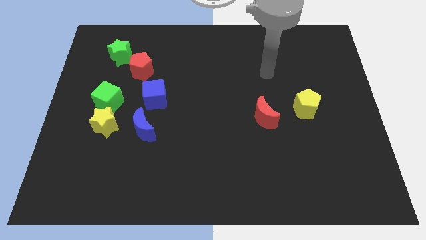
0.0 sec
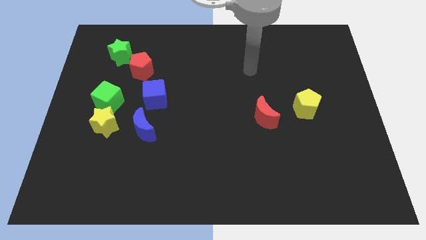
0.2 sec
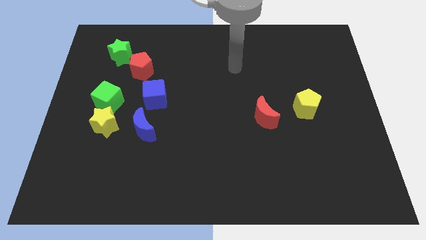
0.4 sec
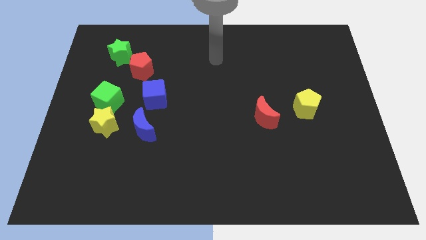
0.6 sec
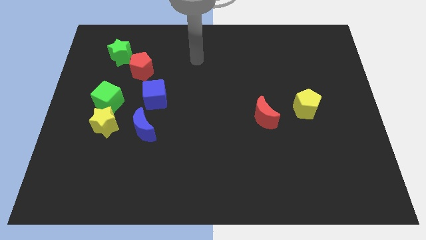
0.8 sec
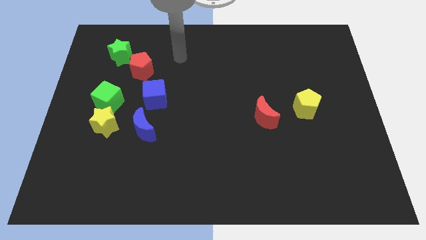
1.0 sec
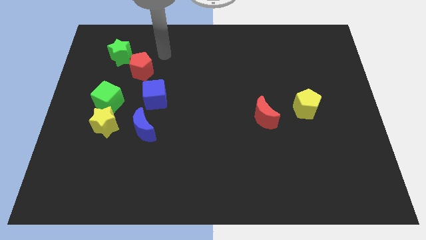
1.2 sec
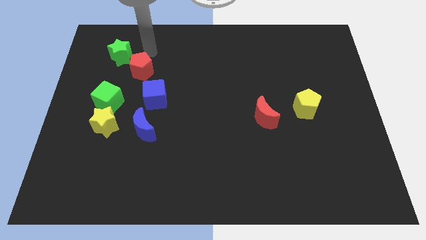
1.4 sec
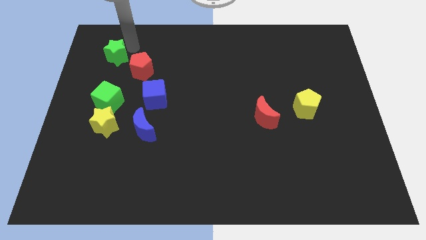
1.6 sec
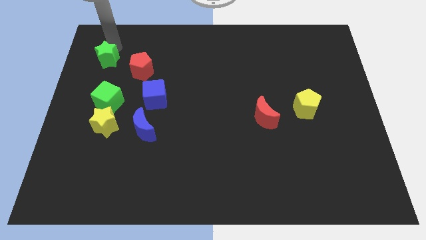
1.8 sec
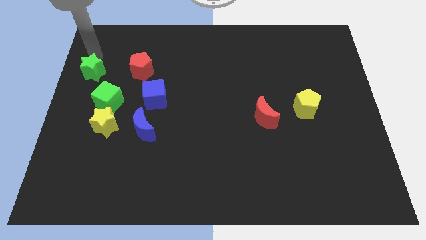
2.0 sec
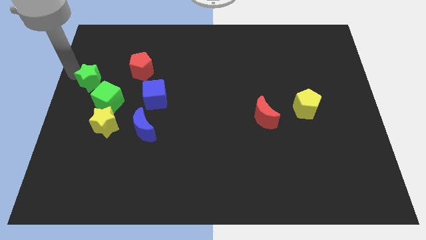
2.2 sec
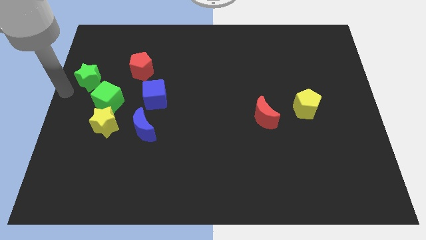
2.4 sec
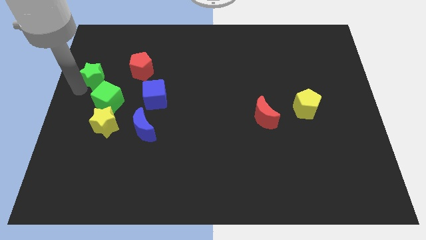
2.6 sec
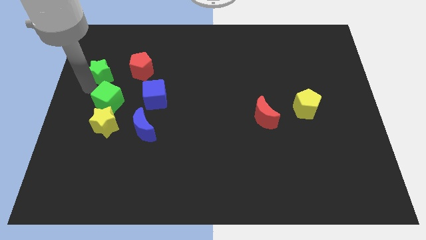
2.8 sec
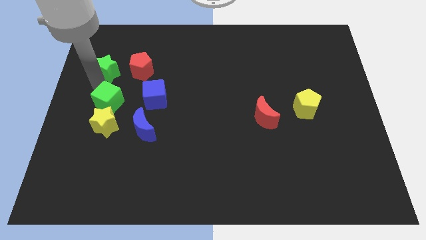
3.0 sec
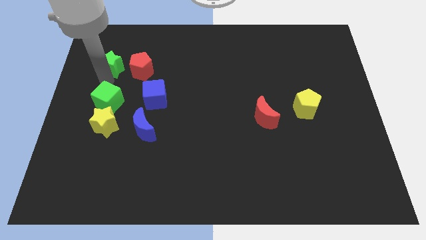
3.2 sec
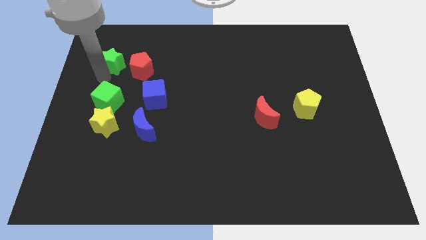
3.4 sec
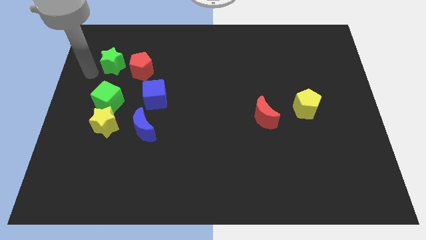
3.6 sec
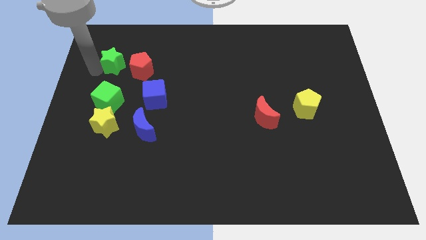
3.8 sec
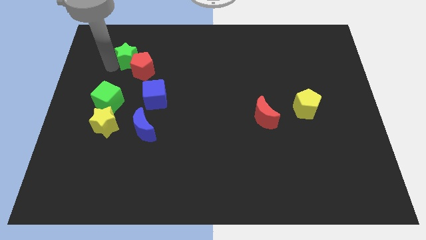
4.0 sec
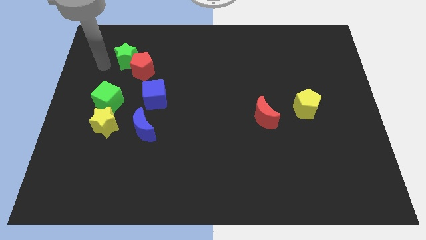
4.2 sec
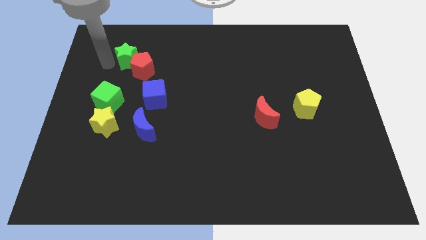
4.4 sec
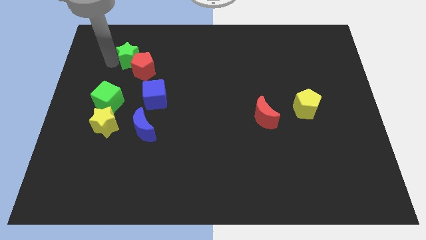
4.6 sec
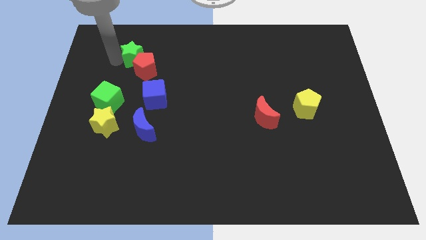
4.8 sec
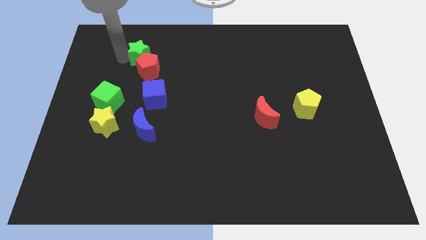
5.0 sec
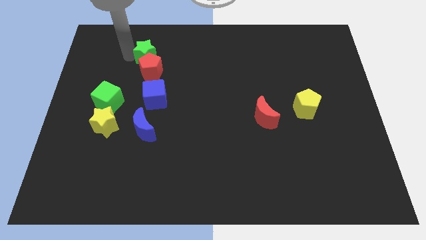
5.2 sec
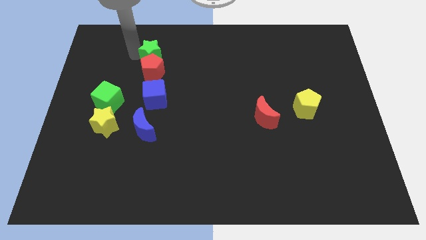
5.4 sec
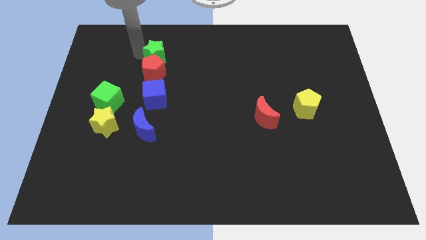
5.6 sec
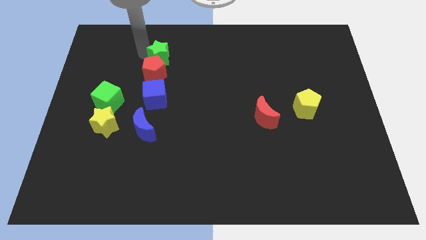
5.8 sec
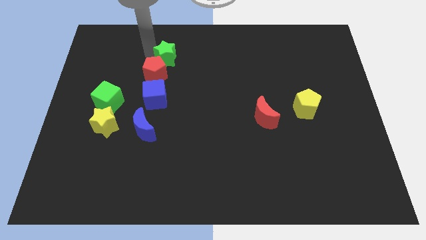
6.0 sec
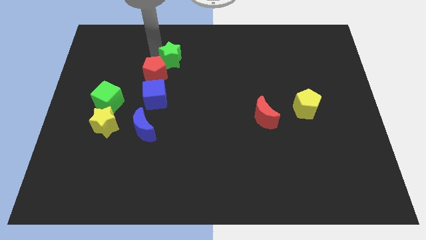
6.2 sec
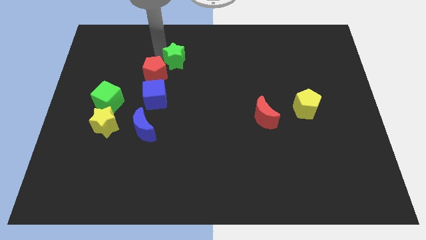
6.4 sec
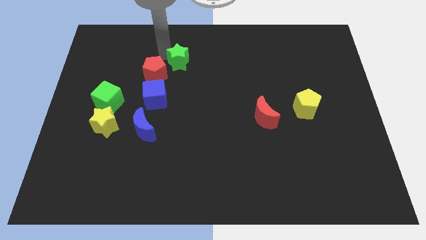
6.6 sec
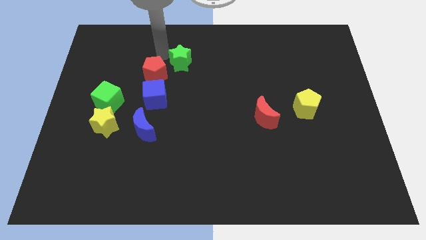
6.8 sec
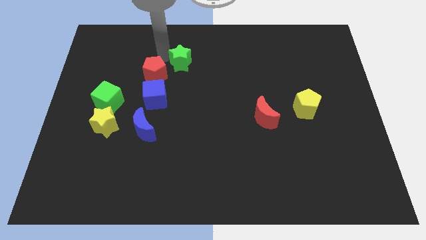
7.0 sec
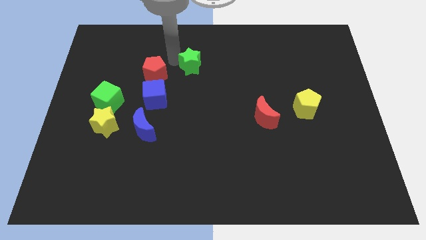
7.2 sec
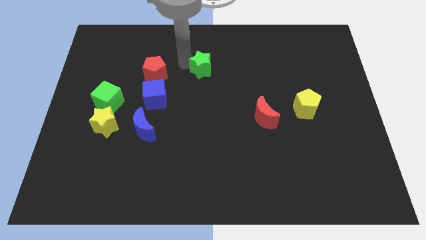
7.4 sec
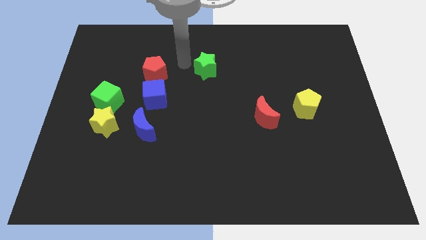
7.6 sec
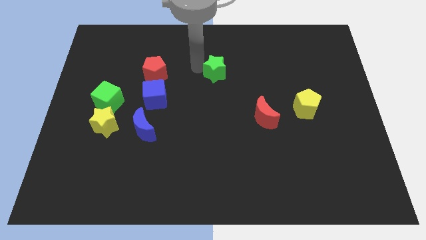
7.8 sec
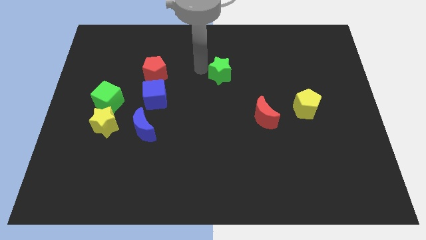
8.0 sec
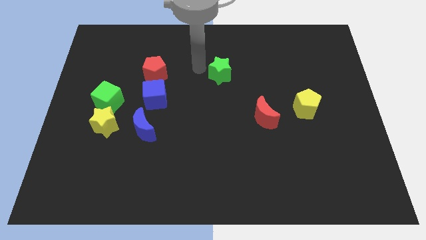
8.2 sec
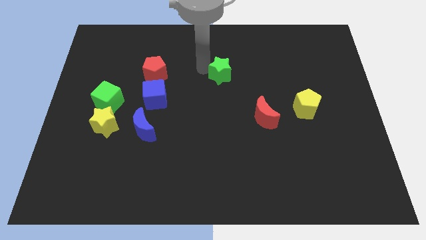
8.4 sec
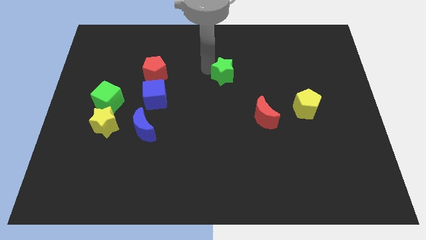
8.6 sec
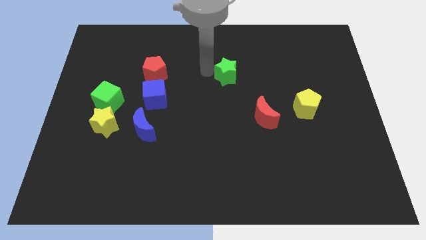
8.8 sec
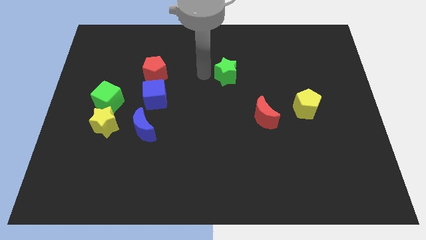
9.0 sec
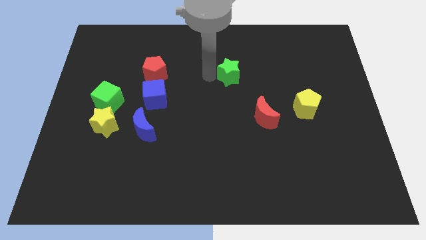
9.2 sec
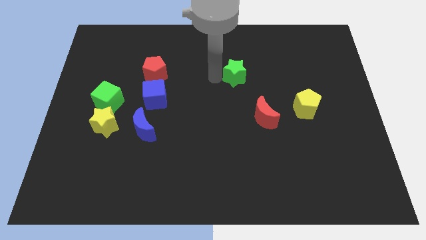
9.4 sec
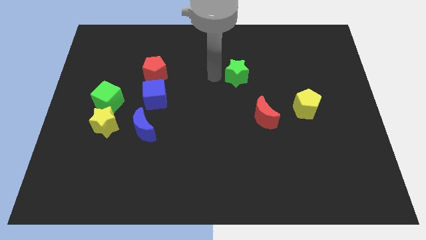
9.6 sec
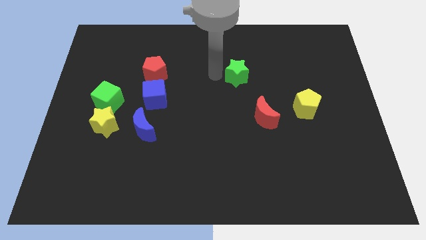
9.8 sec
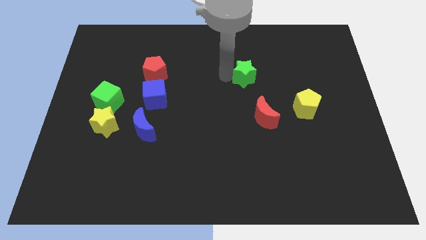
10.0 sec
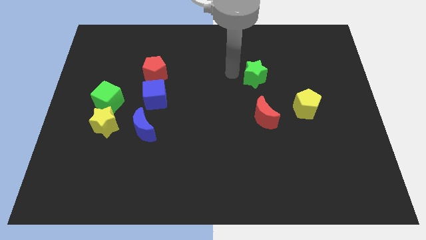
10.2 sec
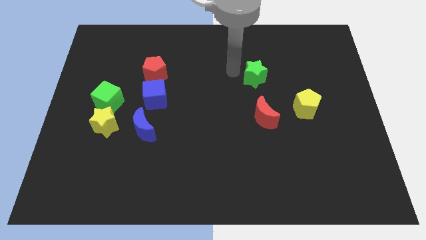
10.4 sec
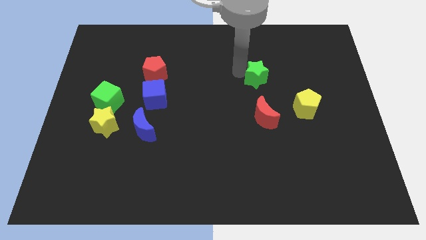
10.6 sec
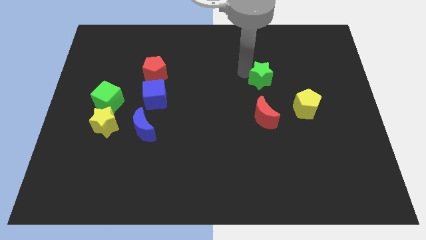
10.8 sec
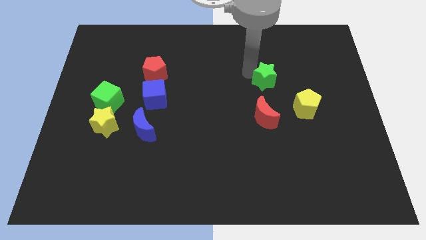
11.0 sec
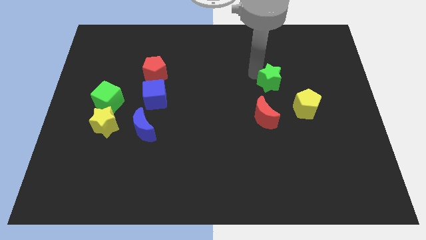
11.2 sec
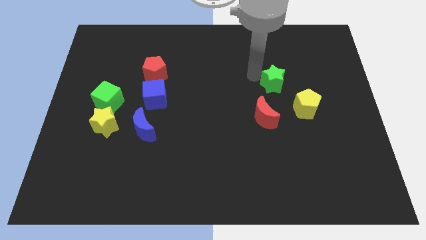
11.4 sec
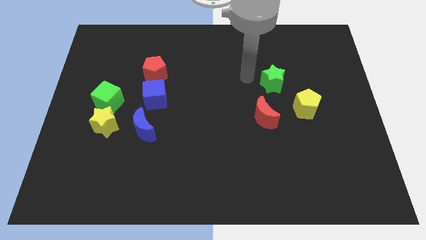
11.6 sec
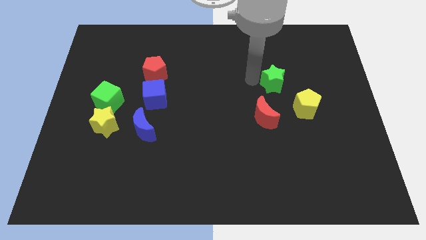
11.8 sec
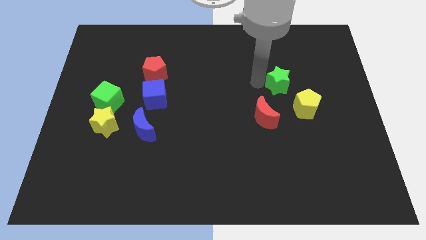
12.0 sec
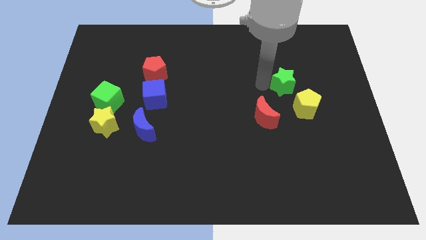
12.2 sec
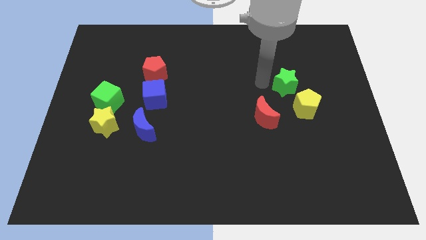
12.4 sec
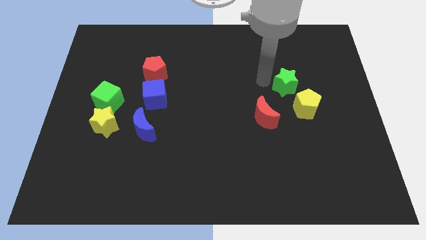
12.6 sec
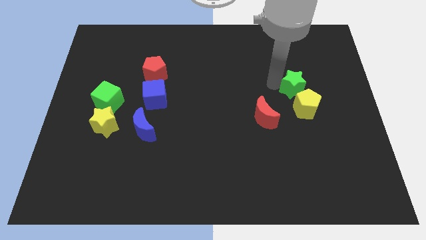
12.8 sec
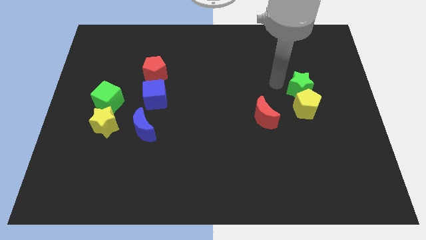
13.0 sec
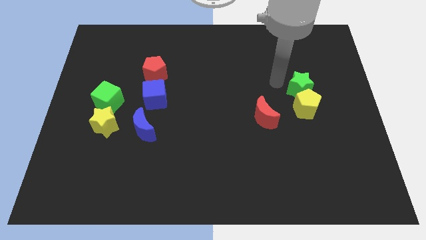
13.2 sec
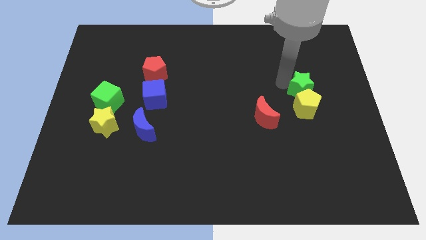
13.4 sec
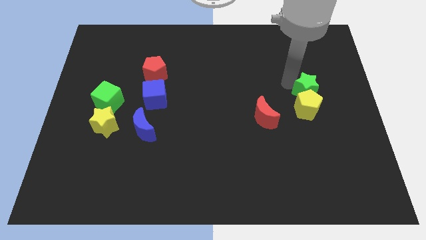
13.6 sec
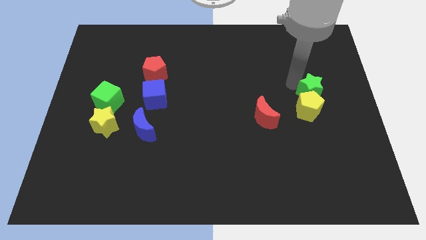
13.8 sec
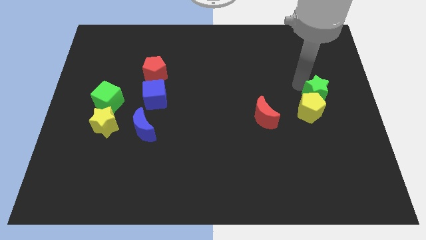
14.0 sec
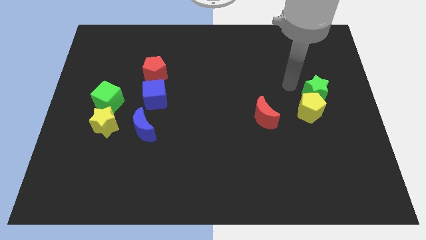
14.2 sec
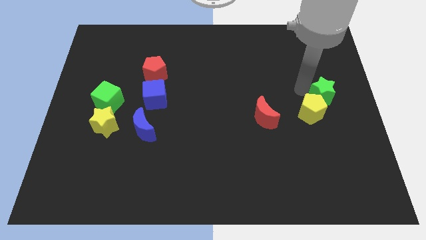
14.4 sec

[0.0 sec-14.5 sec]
move the green star to the right side

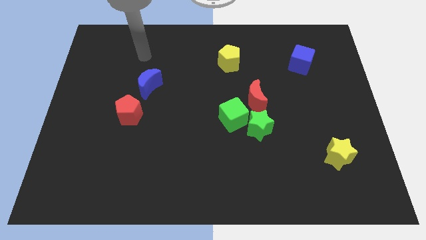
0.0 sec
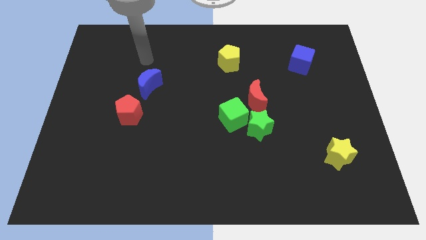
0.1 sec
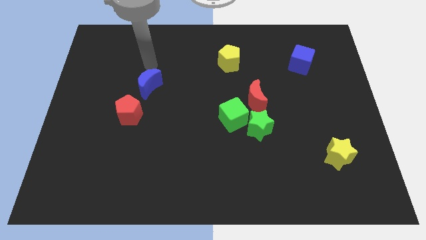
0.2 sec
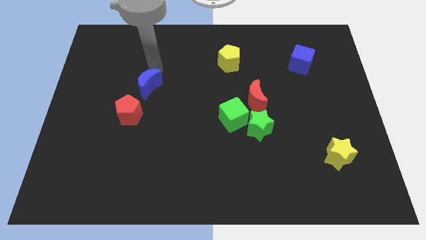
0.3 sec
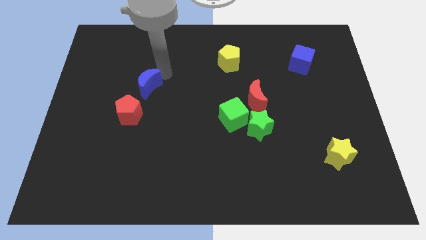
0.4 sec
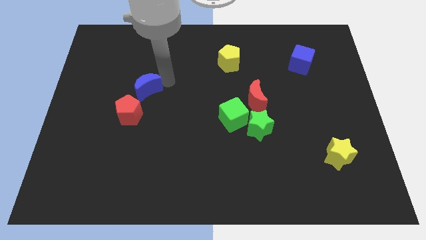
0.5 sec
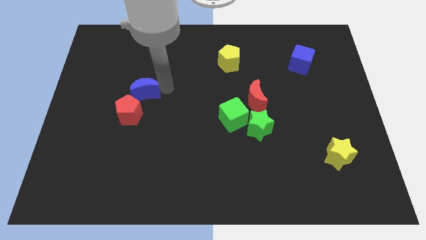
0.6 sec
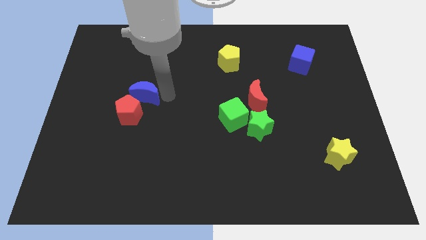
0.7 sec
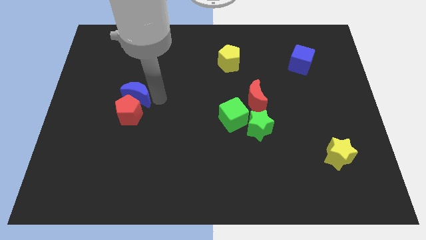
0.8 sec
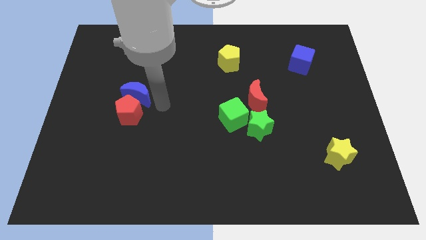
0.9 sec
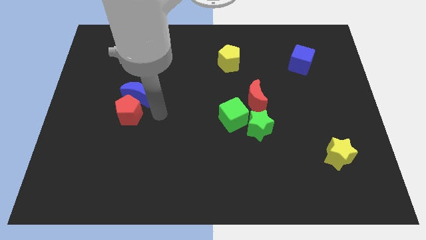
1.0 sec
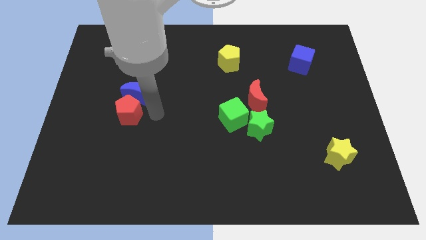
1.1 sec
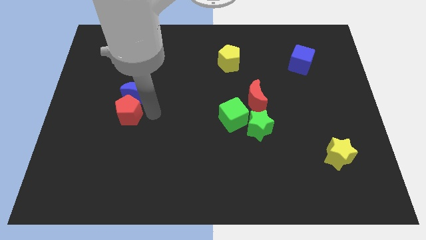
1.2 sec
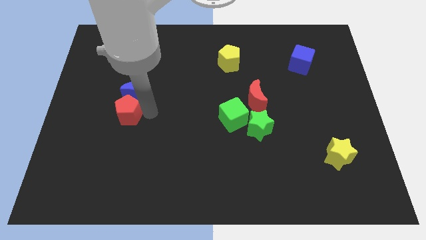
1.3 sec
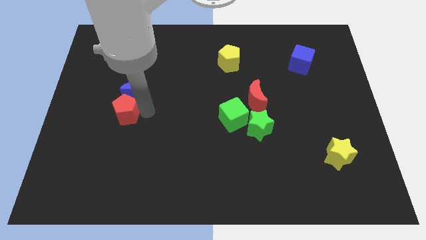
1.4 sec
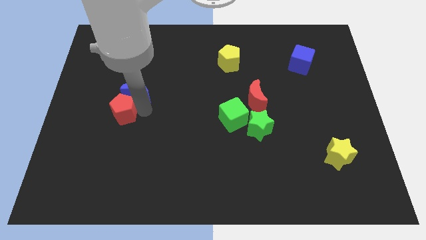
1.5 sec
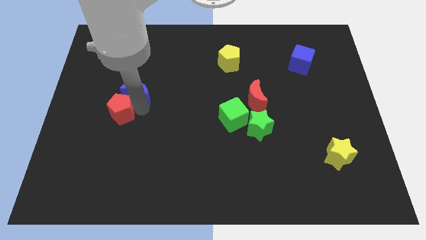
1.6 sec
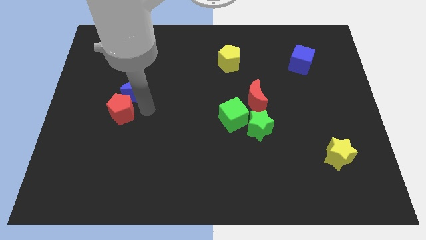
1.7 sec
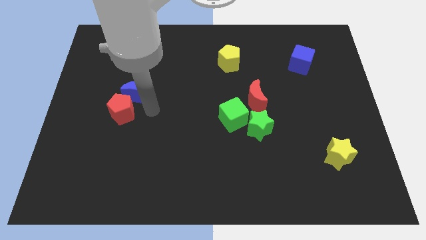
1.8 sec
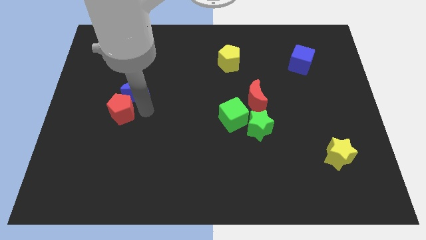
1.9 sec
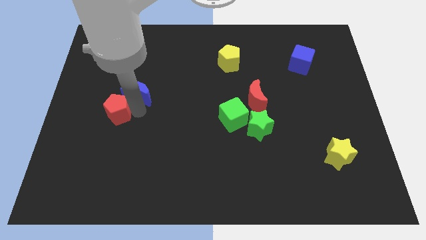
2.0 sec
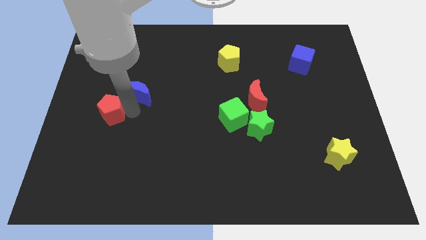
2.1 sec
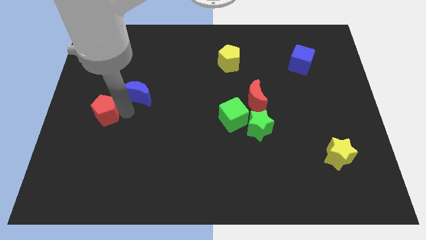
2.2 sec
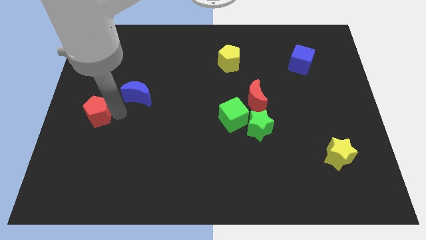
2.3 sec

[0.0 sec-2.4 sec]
push the red pentagon to the left side
